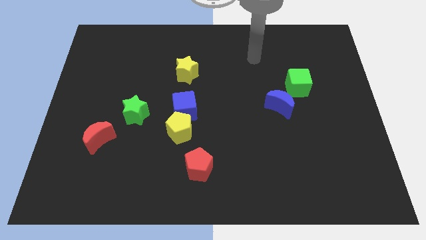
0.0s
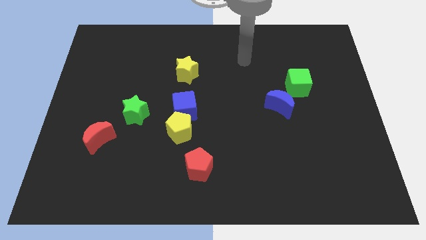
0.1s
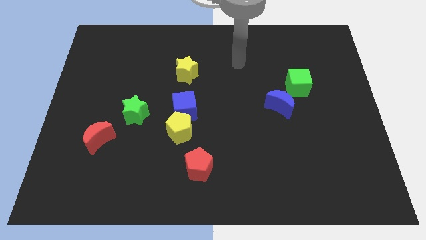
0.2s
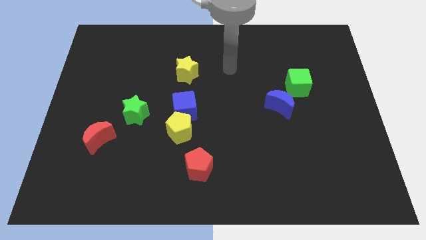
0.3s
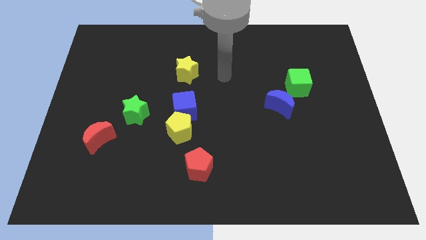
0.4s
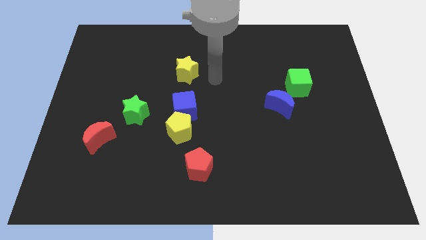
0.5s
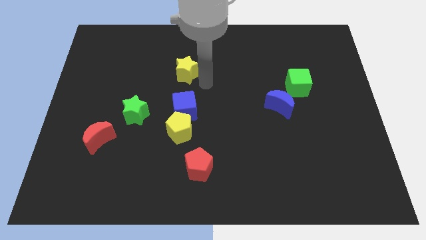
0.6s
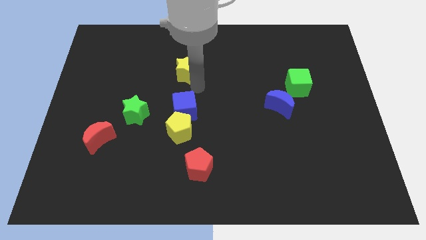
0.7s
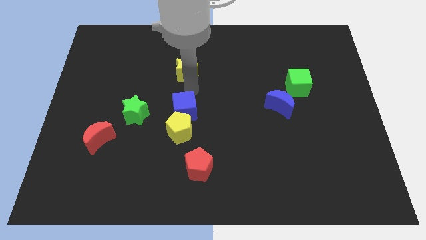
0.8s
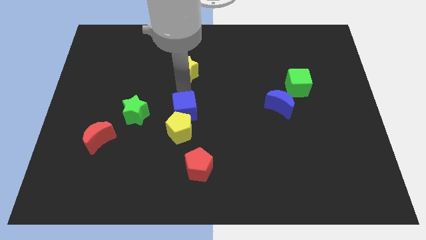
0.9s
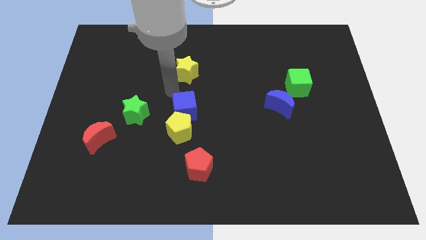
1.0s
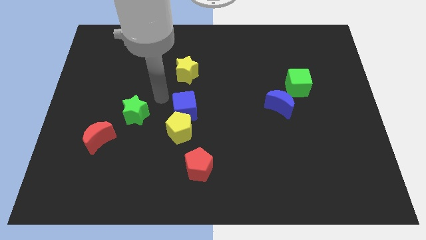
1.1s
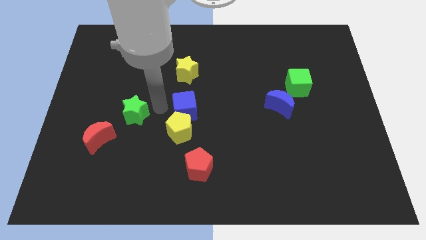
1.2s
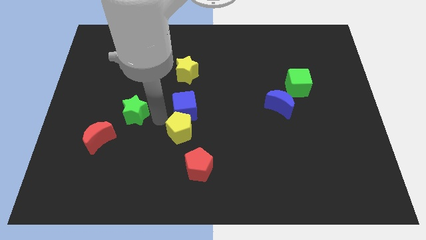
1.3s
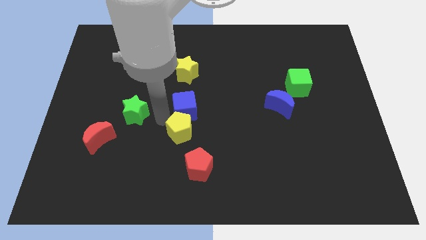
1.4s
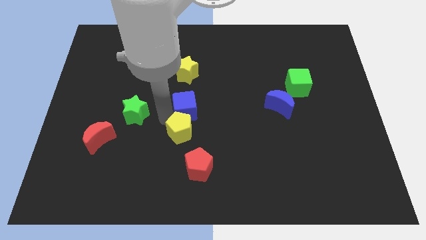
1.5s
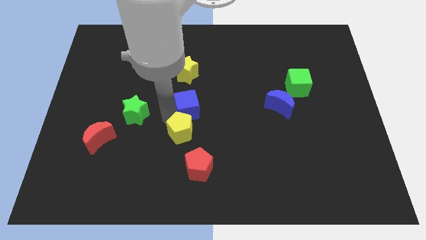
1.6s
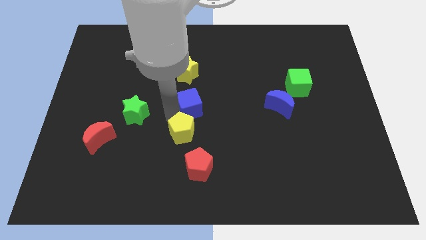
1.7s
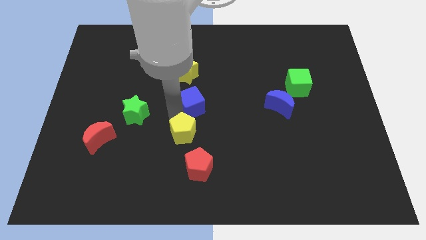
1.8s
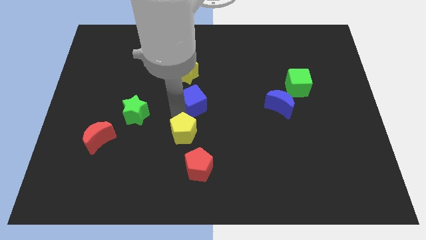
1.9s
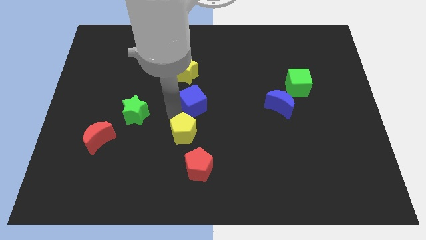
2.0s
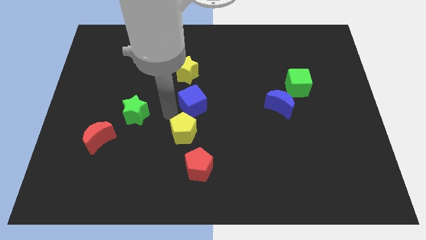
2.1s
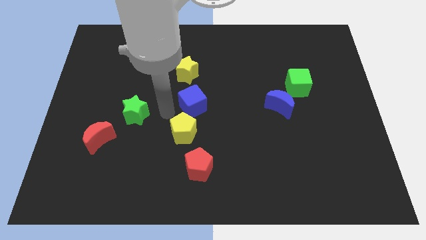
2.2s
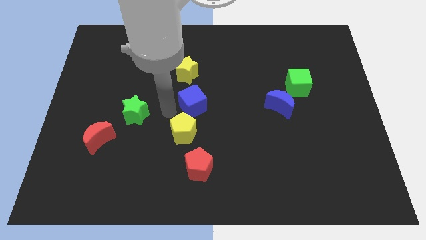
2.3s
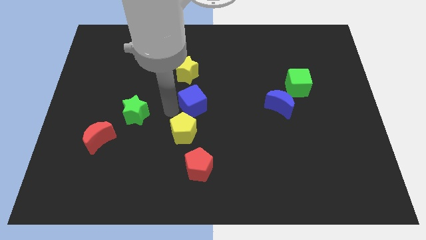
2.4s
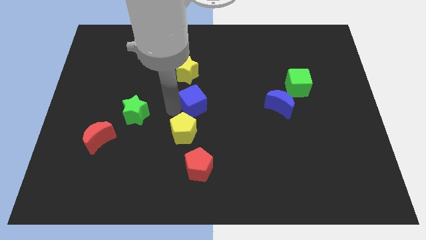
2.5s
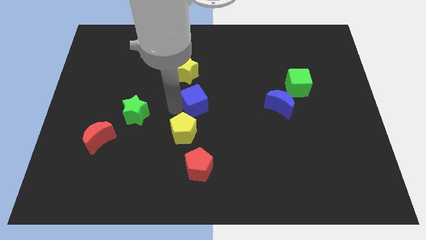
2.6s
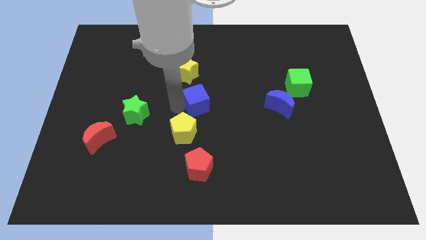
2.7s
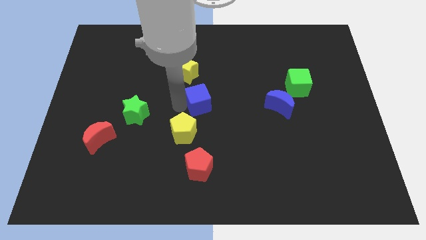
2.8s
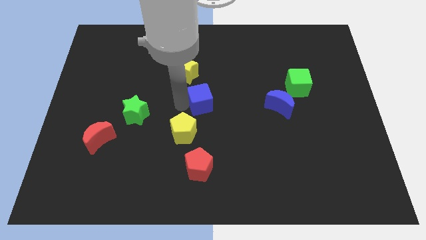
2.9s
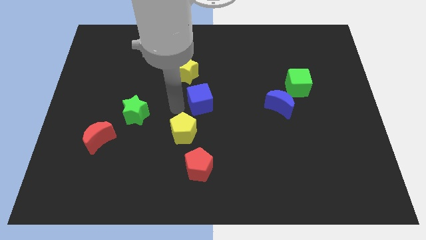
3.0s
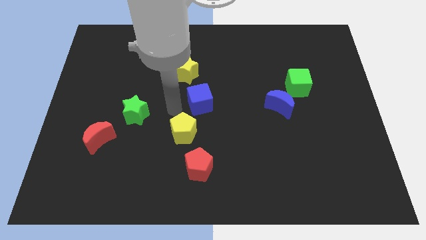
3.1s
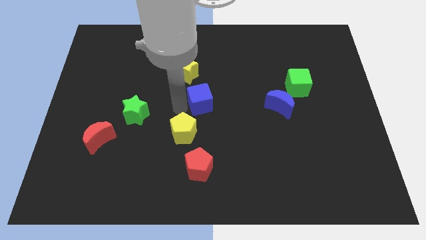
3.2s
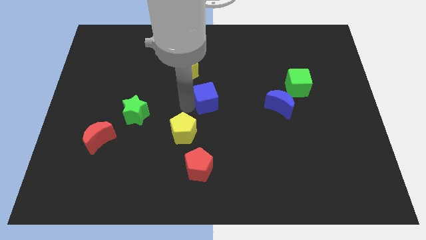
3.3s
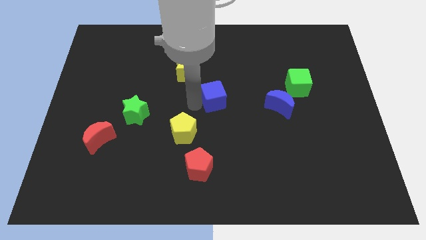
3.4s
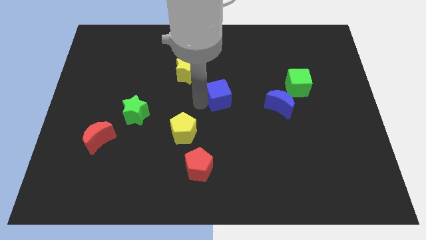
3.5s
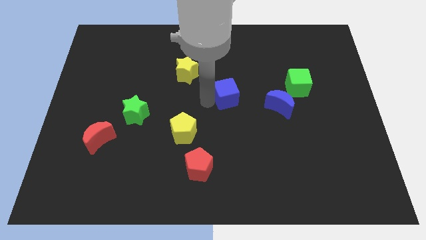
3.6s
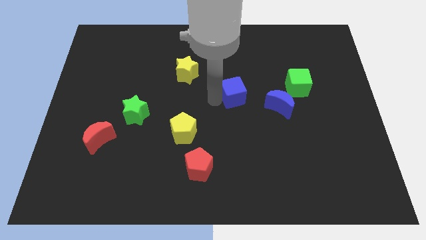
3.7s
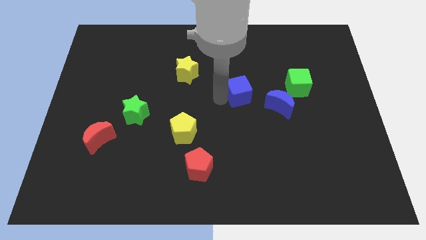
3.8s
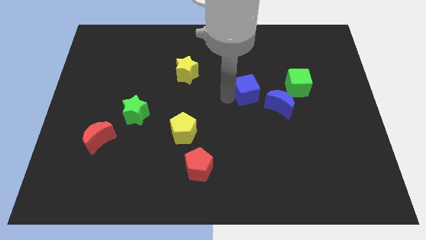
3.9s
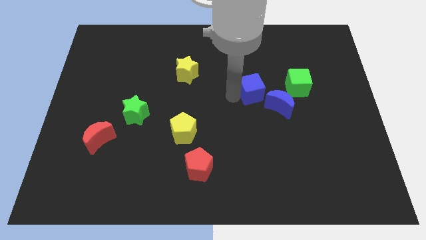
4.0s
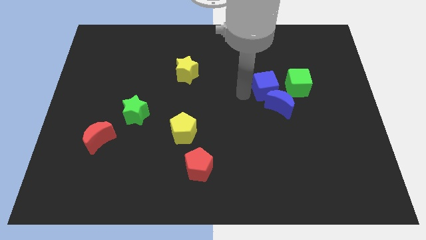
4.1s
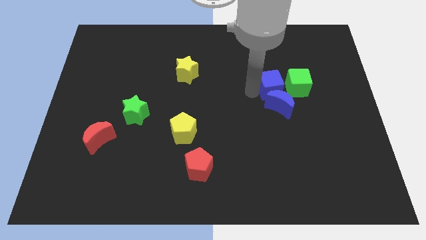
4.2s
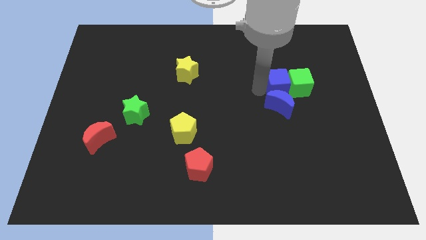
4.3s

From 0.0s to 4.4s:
put the blue cube towards the green cube

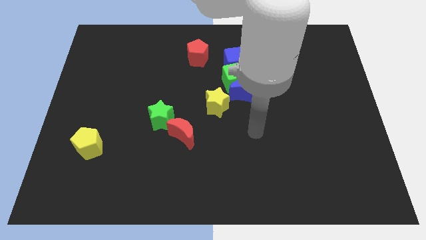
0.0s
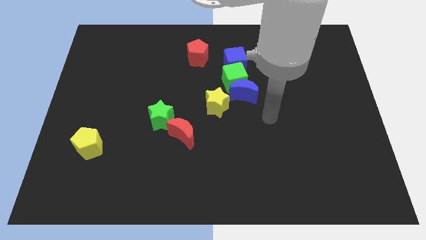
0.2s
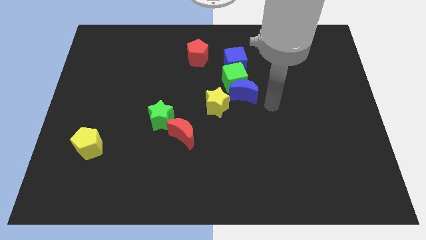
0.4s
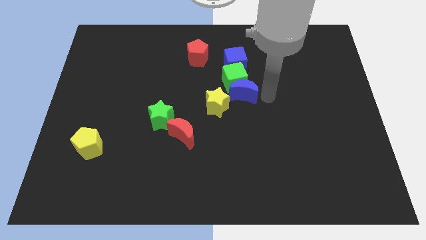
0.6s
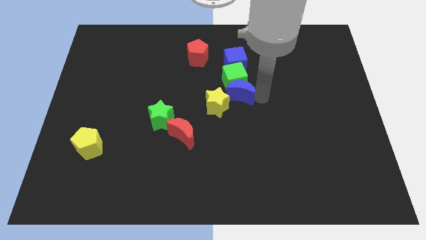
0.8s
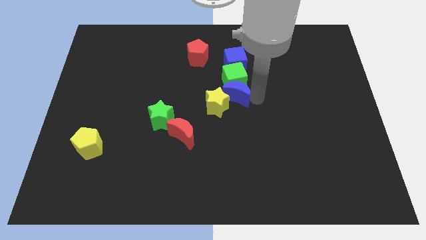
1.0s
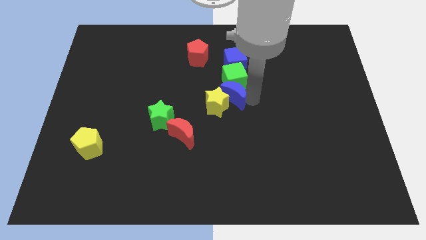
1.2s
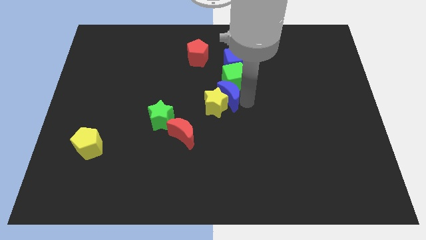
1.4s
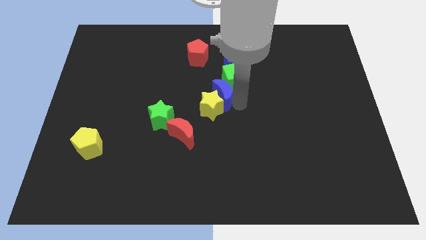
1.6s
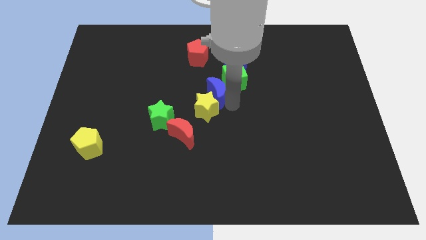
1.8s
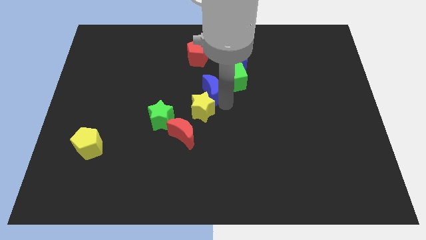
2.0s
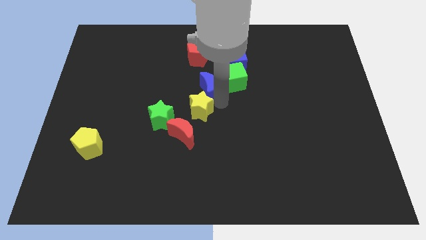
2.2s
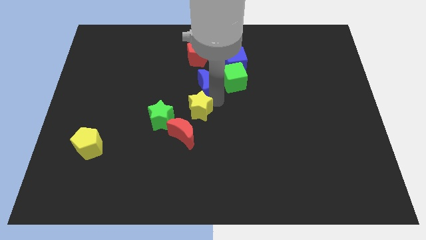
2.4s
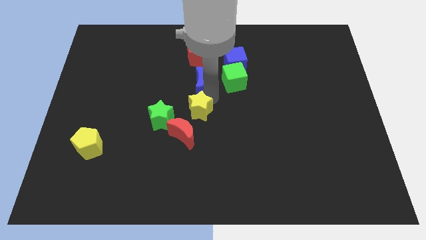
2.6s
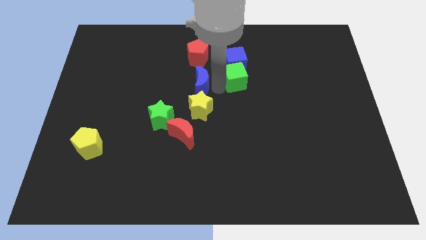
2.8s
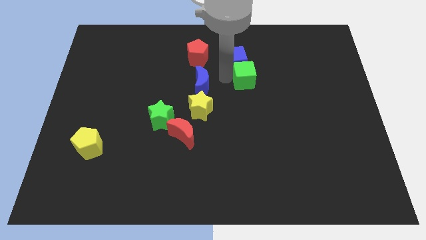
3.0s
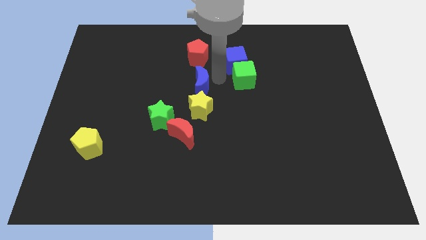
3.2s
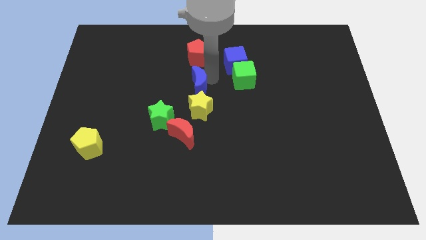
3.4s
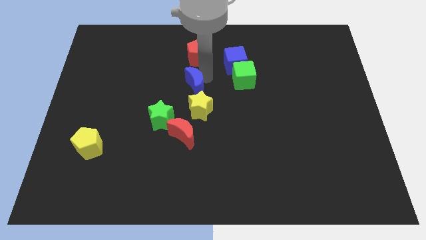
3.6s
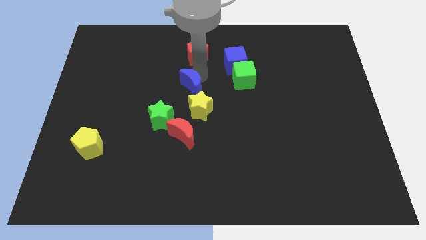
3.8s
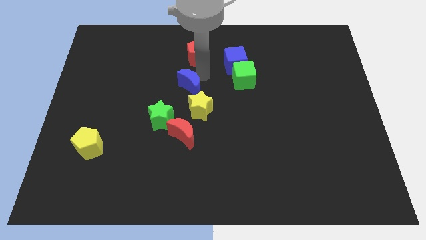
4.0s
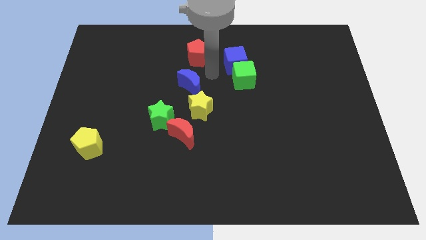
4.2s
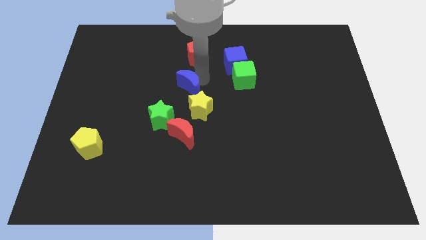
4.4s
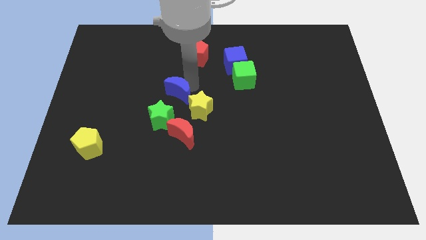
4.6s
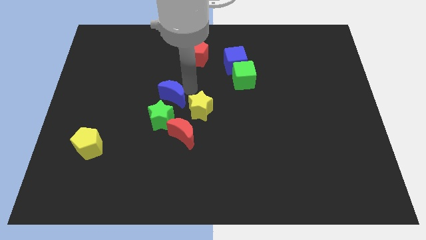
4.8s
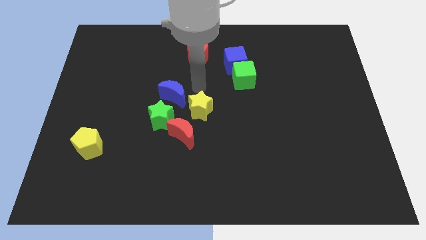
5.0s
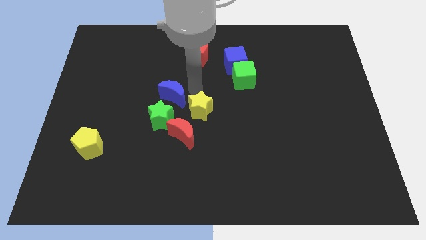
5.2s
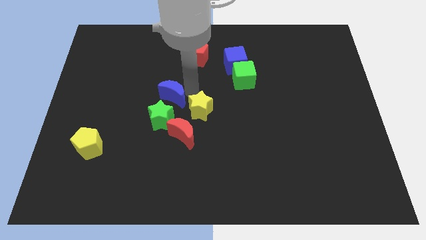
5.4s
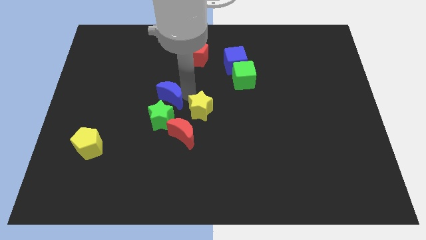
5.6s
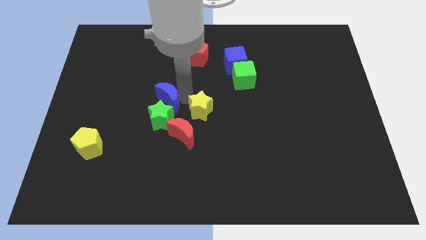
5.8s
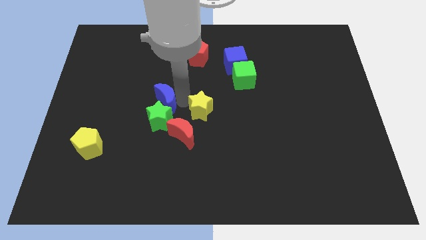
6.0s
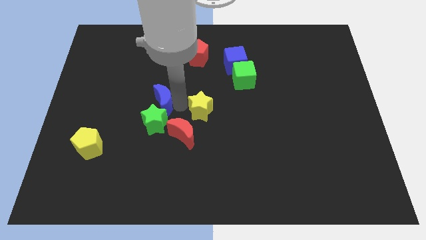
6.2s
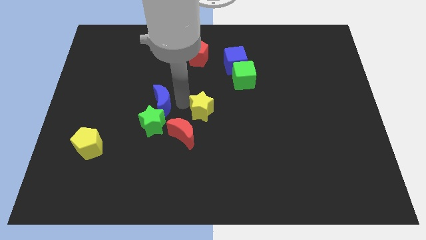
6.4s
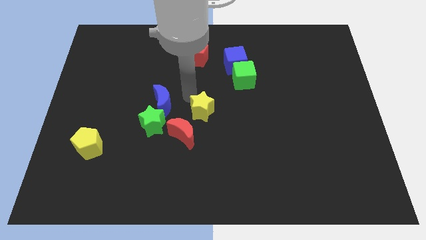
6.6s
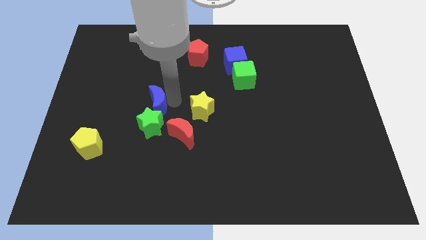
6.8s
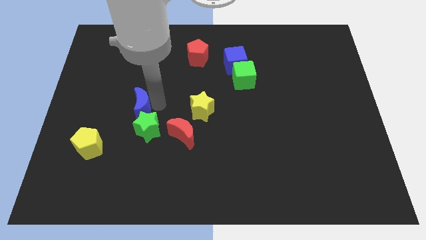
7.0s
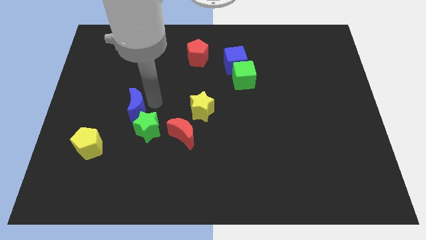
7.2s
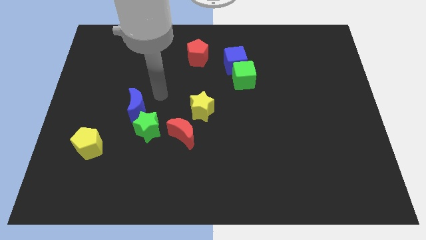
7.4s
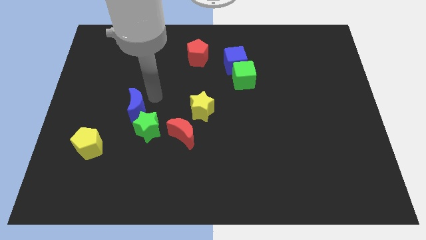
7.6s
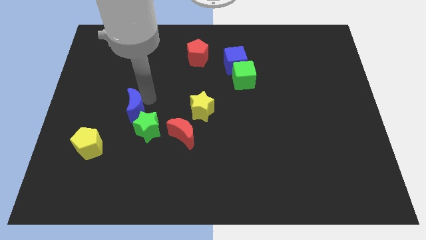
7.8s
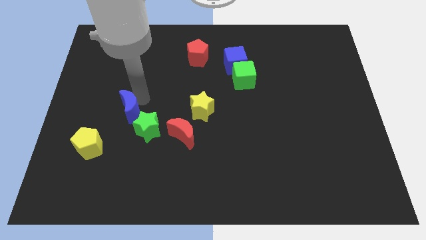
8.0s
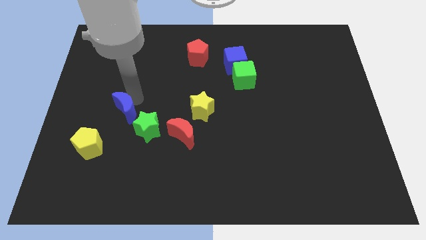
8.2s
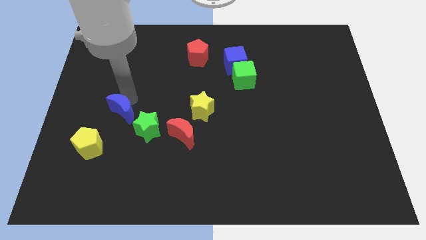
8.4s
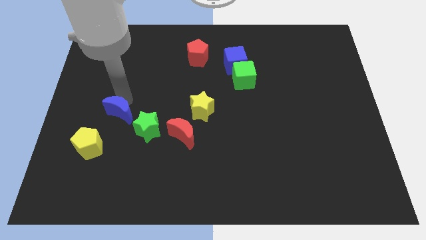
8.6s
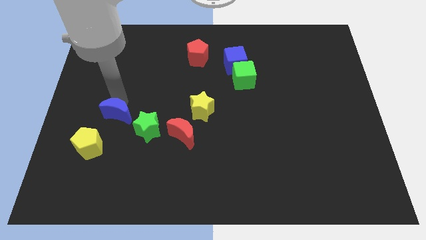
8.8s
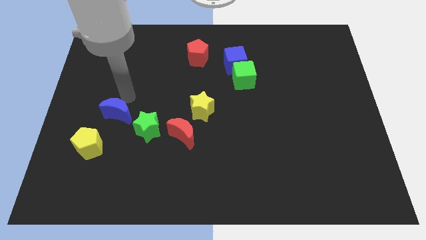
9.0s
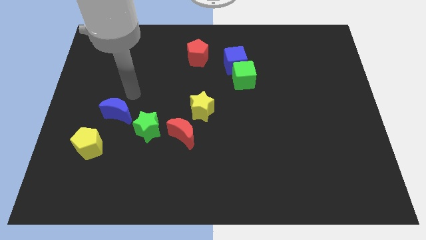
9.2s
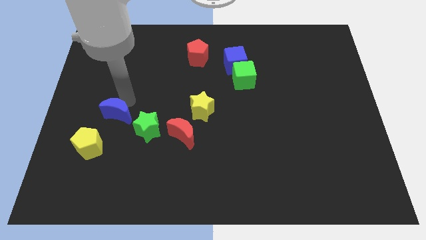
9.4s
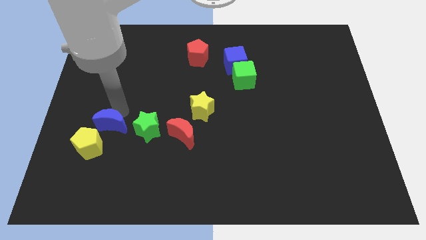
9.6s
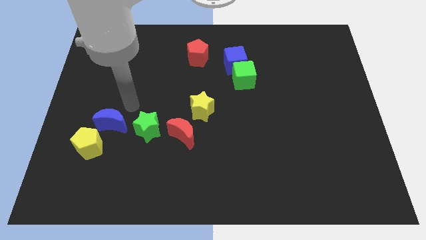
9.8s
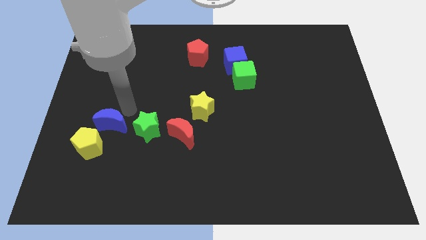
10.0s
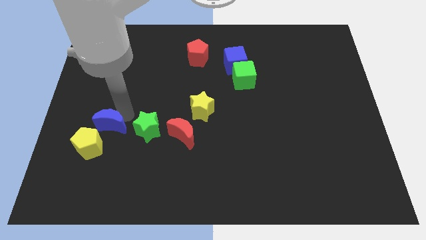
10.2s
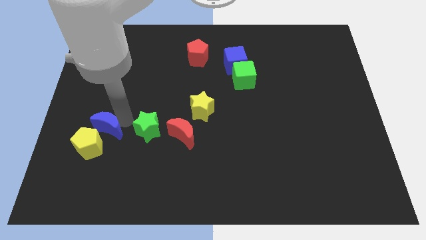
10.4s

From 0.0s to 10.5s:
slide the blue moon to the yellow pentagon
